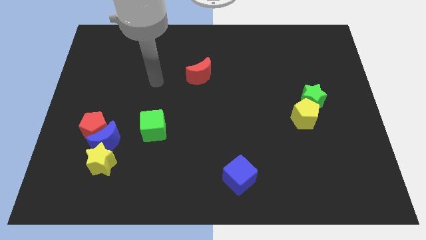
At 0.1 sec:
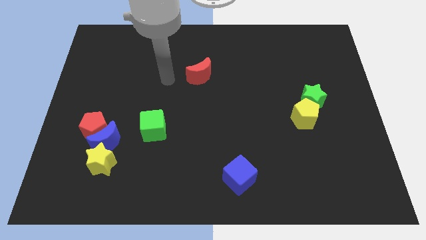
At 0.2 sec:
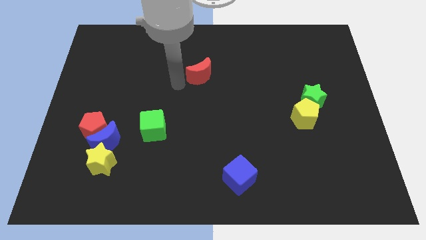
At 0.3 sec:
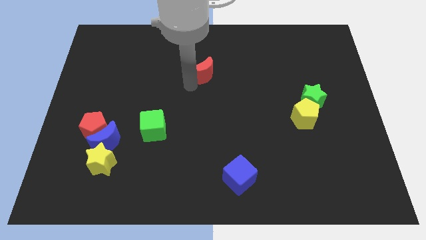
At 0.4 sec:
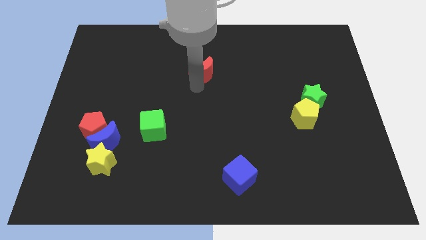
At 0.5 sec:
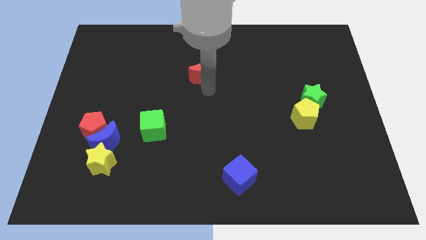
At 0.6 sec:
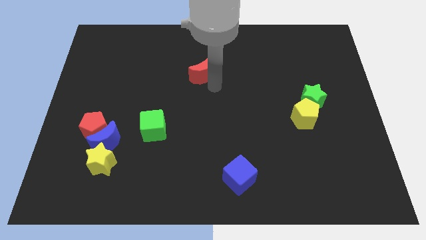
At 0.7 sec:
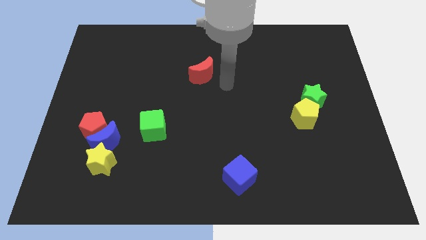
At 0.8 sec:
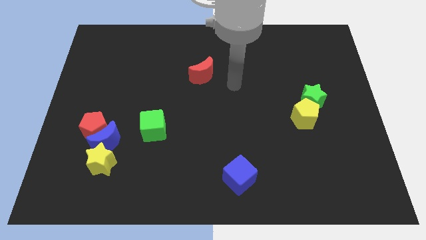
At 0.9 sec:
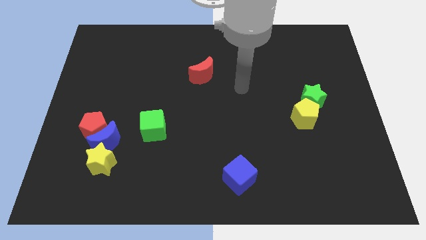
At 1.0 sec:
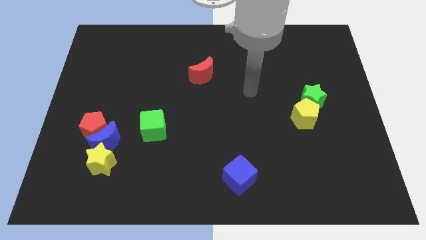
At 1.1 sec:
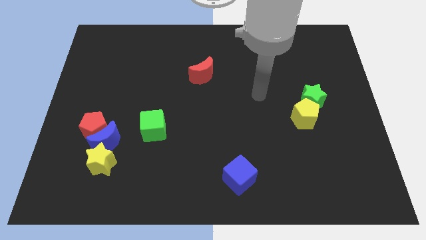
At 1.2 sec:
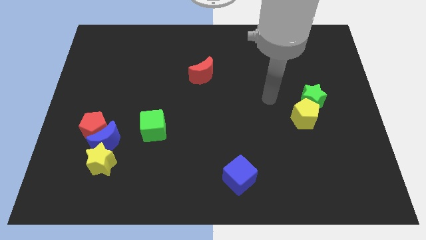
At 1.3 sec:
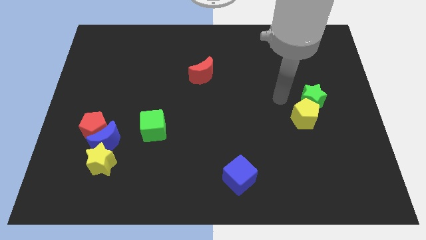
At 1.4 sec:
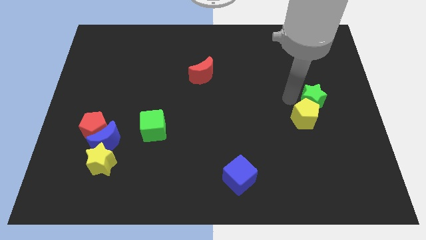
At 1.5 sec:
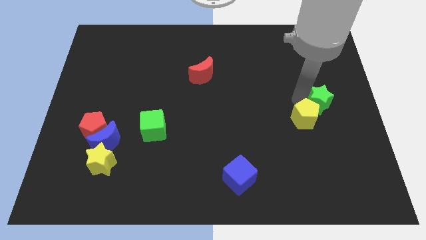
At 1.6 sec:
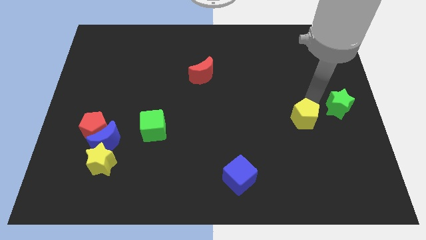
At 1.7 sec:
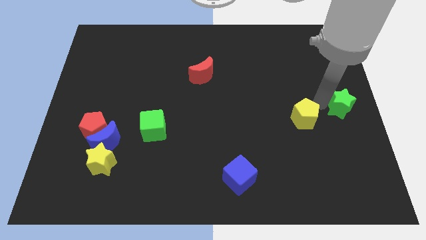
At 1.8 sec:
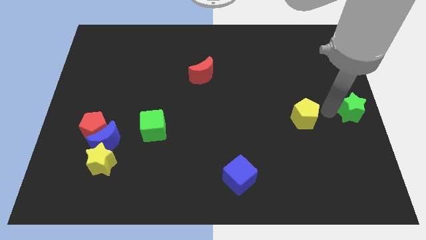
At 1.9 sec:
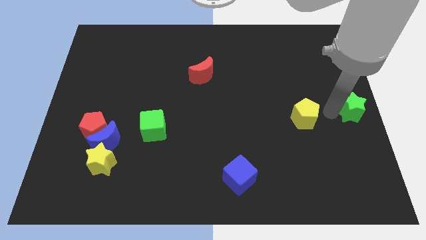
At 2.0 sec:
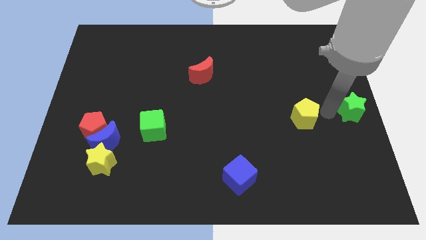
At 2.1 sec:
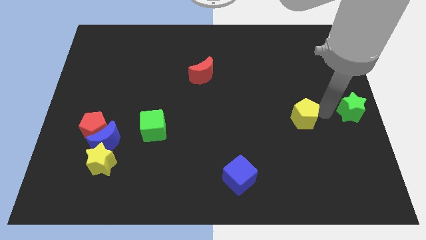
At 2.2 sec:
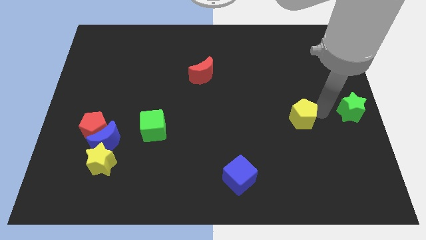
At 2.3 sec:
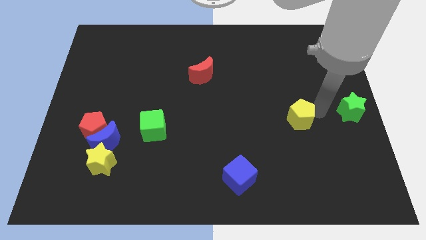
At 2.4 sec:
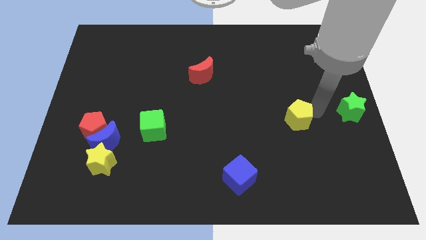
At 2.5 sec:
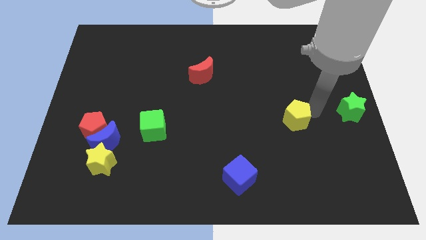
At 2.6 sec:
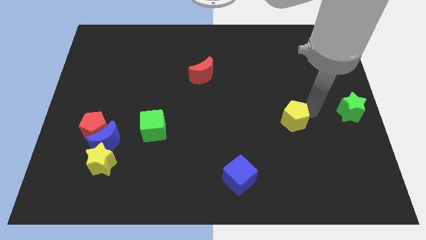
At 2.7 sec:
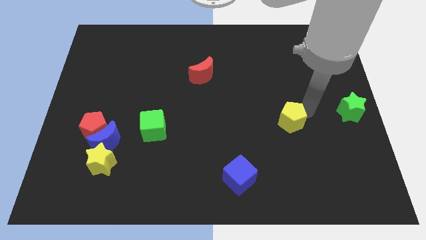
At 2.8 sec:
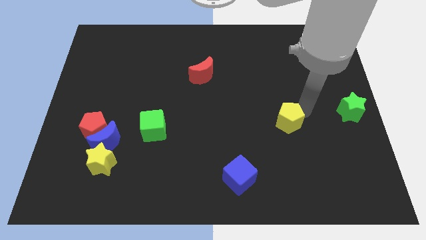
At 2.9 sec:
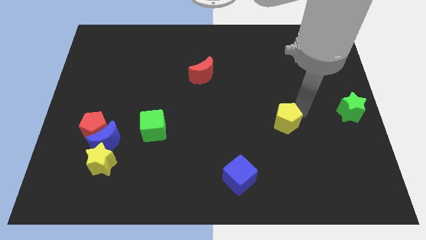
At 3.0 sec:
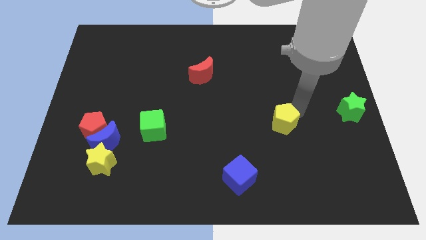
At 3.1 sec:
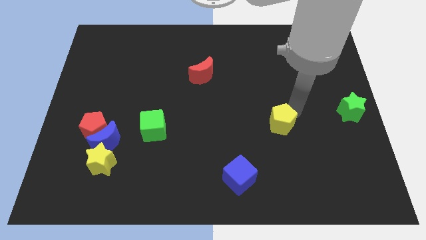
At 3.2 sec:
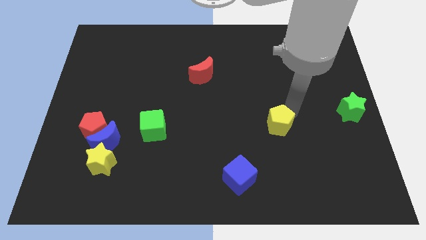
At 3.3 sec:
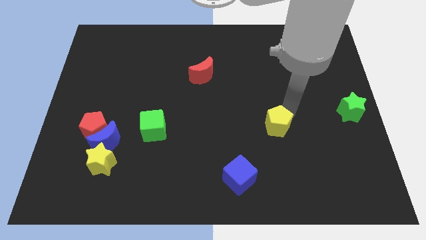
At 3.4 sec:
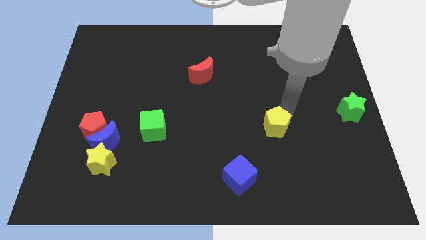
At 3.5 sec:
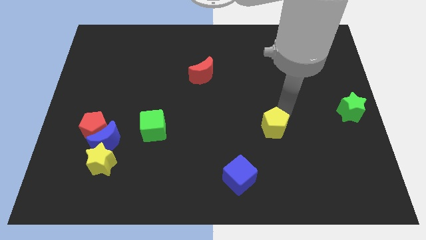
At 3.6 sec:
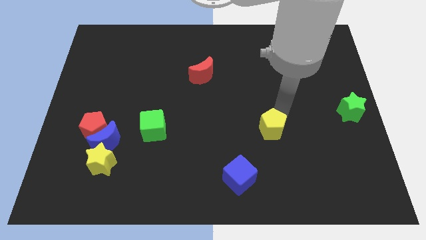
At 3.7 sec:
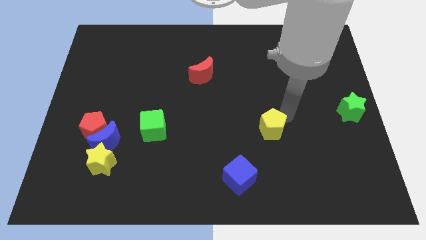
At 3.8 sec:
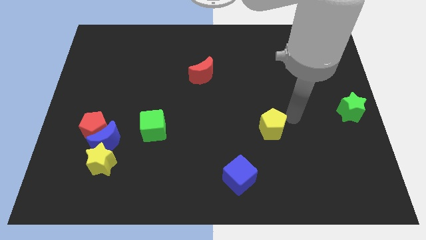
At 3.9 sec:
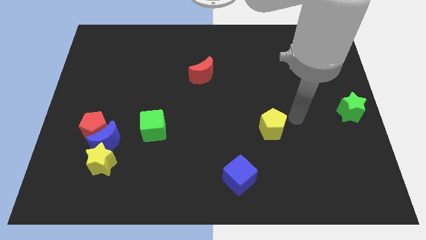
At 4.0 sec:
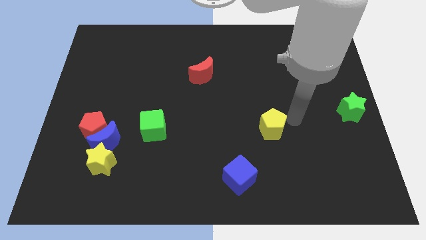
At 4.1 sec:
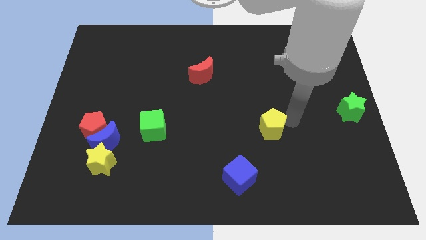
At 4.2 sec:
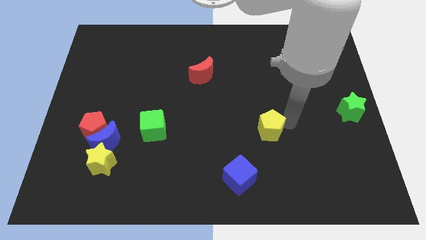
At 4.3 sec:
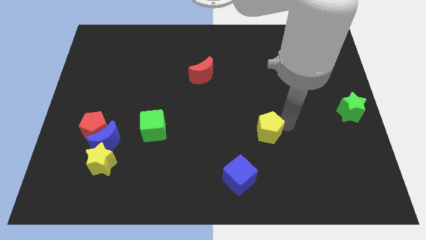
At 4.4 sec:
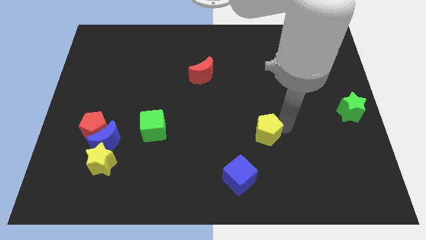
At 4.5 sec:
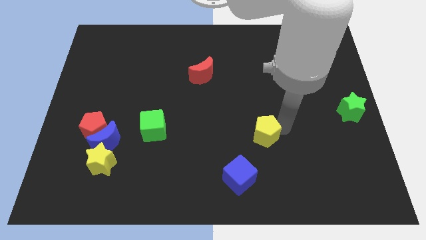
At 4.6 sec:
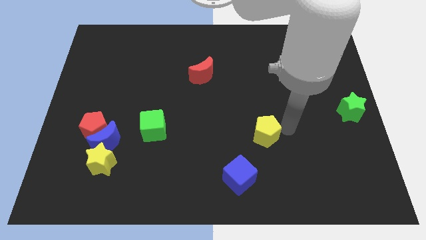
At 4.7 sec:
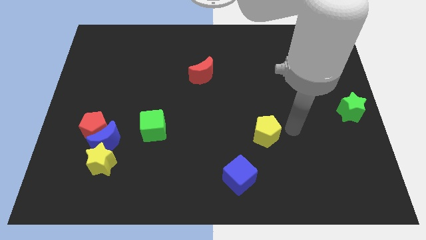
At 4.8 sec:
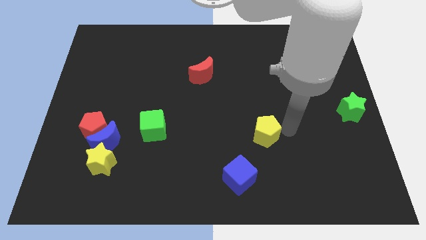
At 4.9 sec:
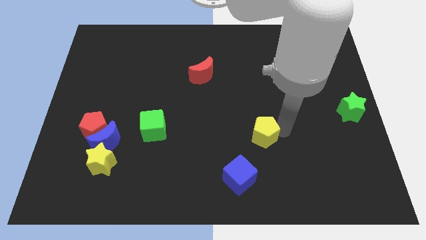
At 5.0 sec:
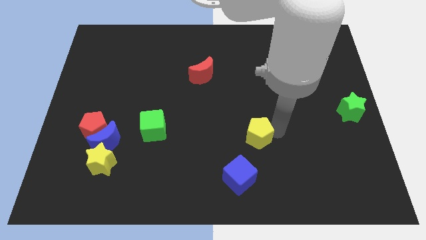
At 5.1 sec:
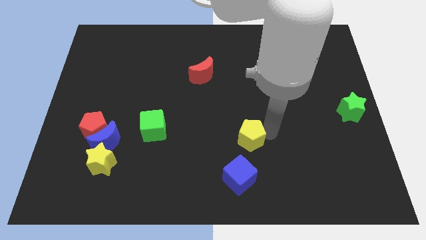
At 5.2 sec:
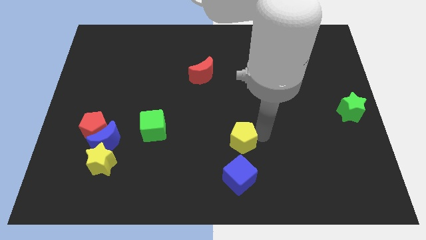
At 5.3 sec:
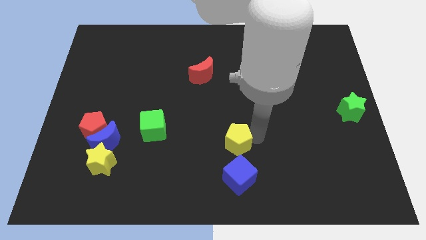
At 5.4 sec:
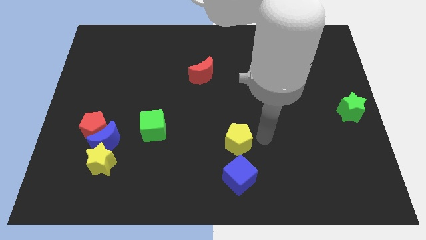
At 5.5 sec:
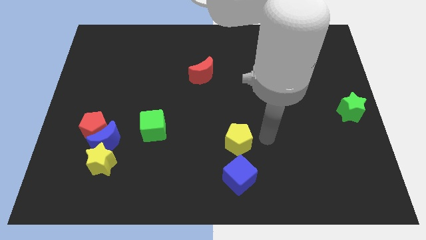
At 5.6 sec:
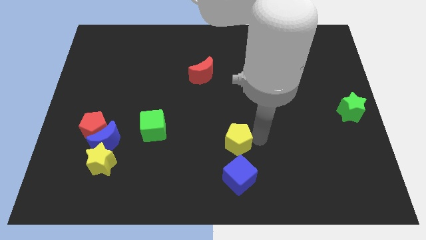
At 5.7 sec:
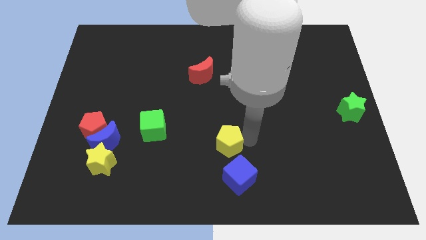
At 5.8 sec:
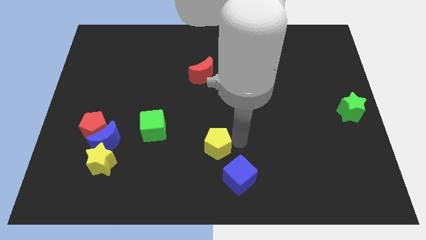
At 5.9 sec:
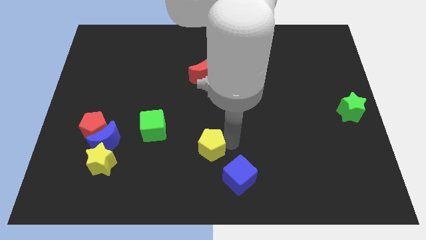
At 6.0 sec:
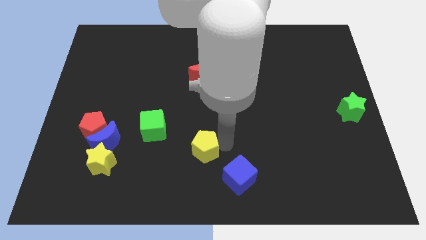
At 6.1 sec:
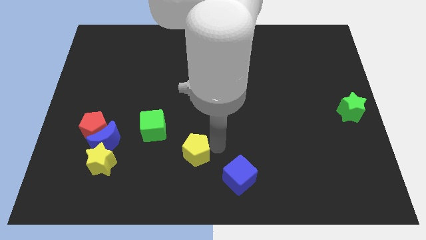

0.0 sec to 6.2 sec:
put the yellow pentagon to the bottom right of the green cube
